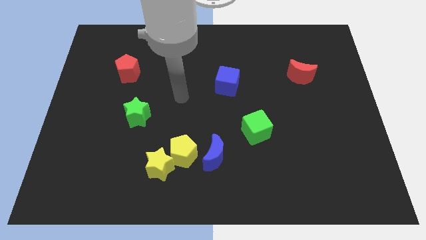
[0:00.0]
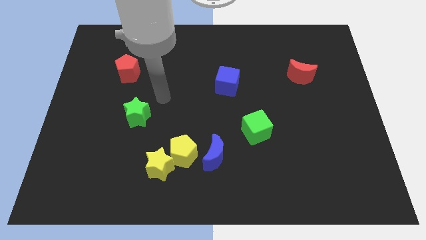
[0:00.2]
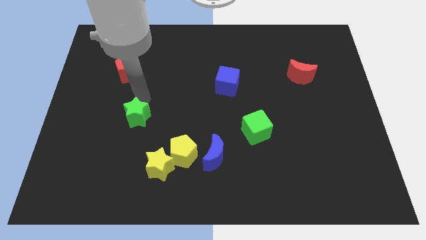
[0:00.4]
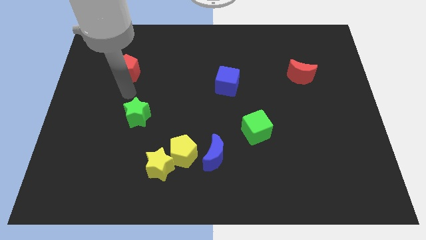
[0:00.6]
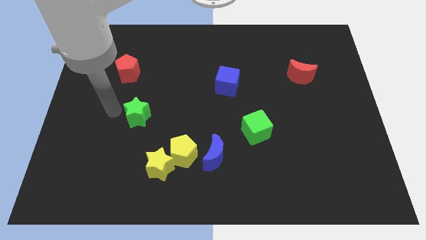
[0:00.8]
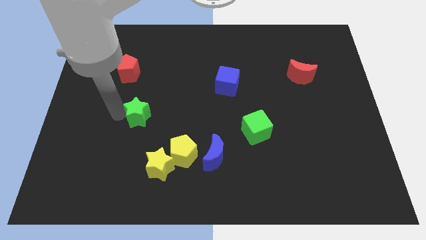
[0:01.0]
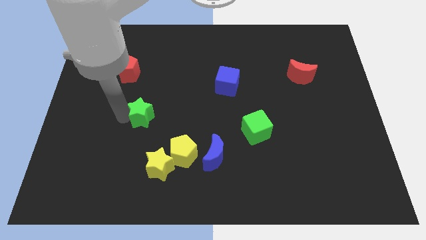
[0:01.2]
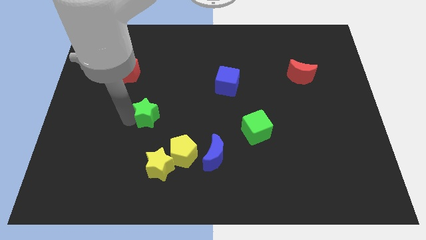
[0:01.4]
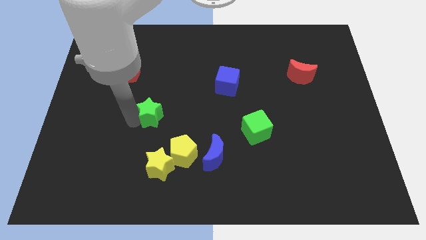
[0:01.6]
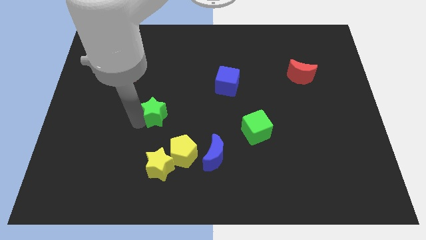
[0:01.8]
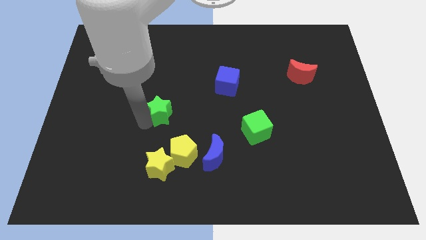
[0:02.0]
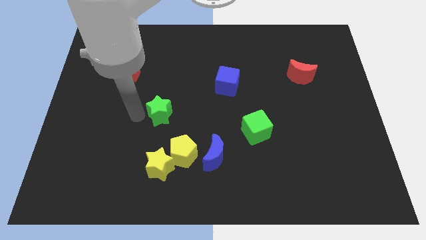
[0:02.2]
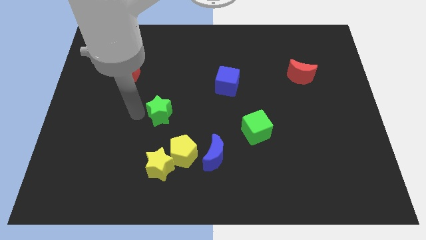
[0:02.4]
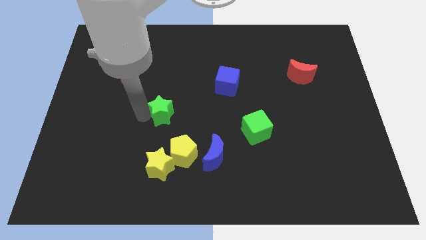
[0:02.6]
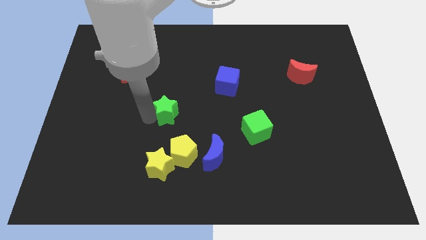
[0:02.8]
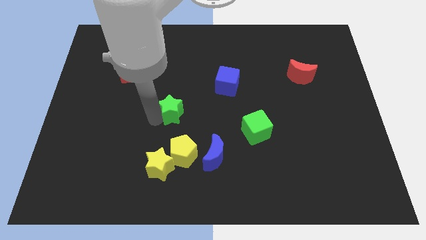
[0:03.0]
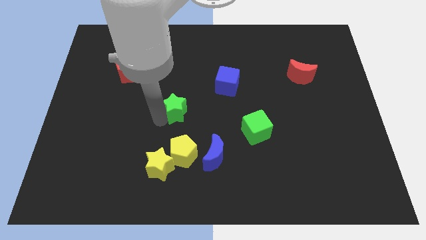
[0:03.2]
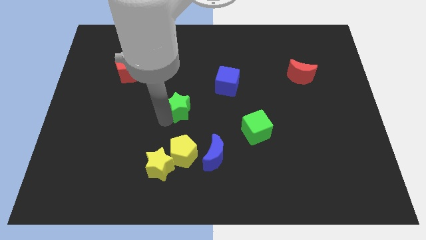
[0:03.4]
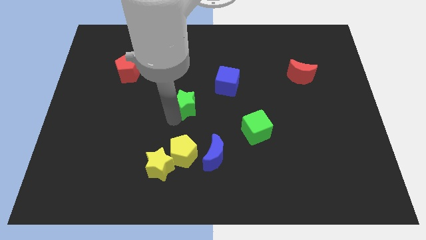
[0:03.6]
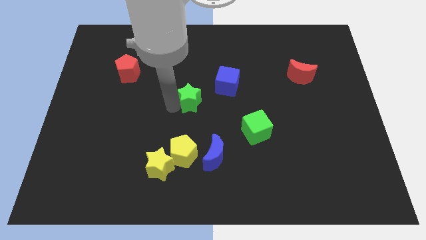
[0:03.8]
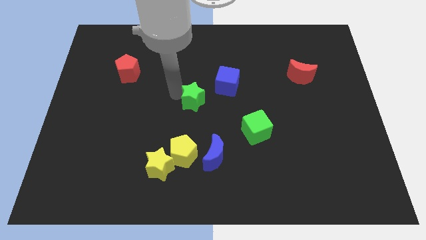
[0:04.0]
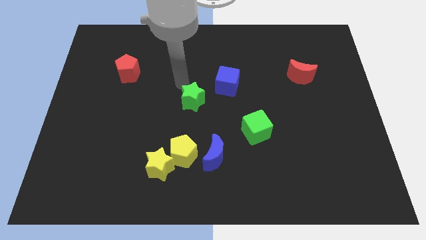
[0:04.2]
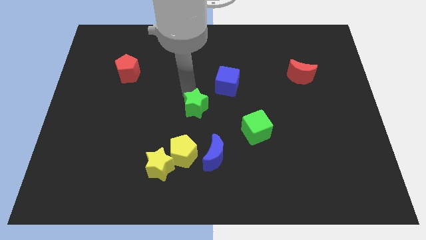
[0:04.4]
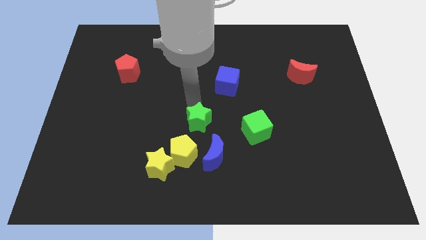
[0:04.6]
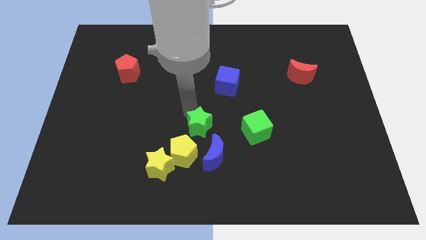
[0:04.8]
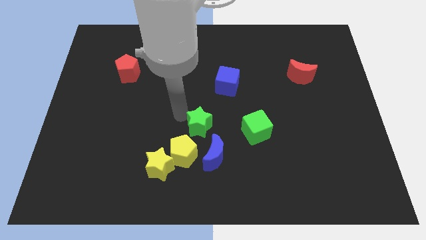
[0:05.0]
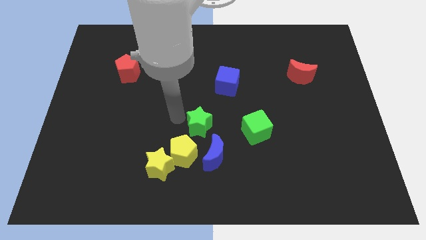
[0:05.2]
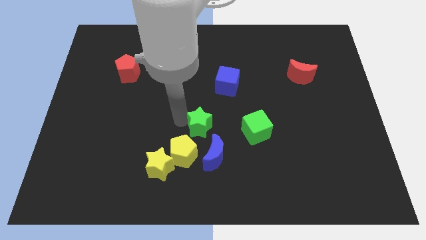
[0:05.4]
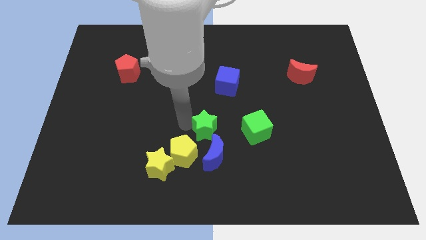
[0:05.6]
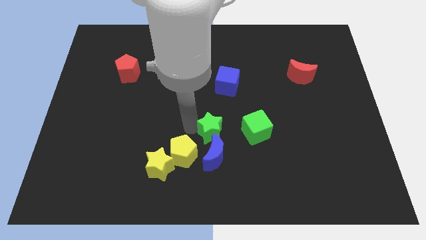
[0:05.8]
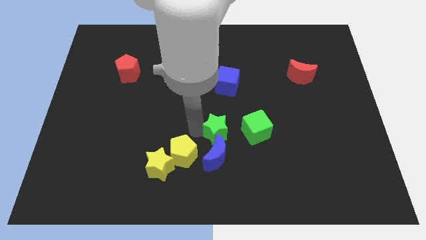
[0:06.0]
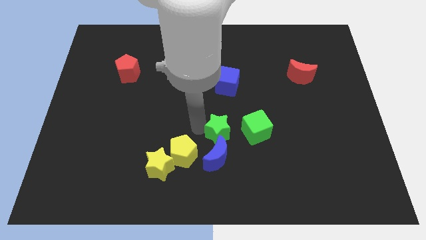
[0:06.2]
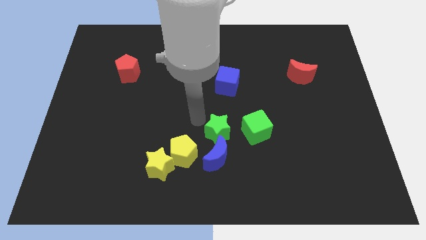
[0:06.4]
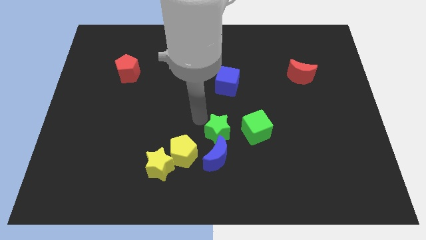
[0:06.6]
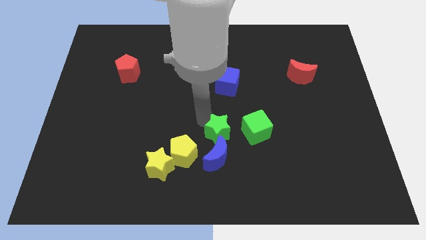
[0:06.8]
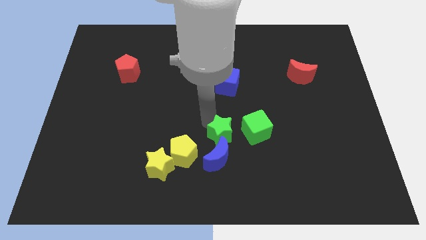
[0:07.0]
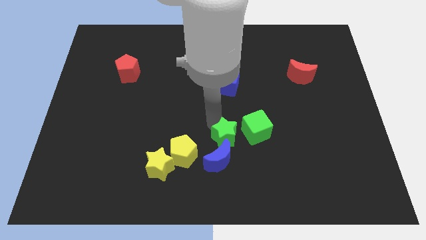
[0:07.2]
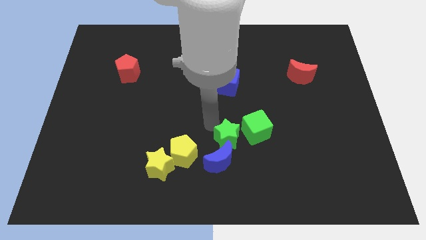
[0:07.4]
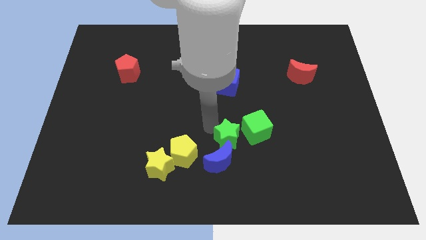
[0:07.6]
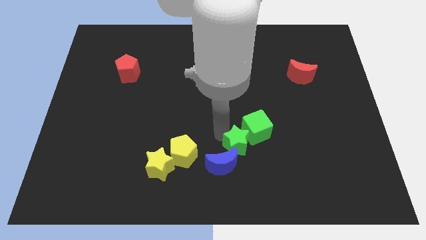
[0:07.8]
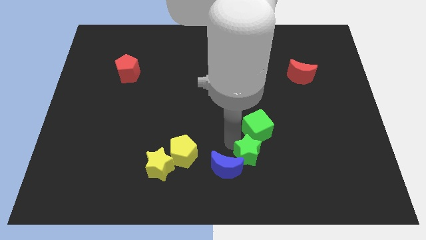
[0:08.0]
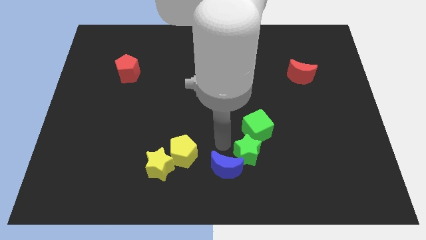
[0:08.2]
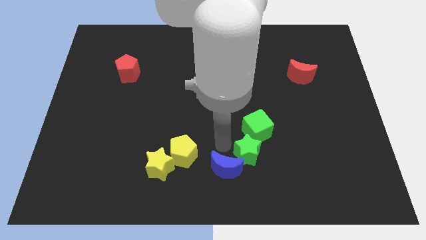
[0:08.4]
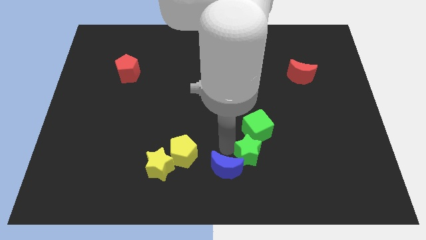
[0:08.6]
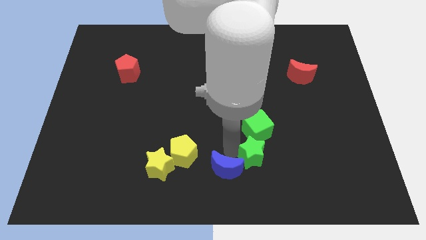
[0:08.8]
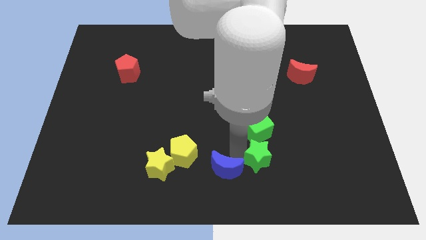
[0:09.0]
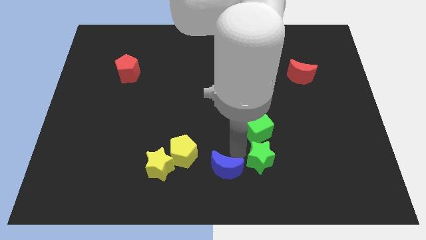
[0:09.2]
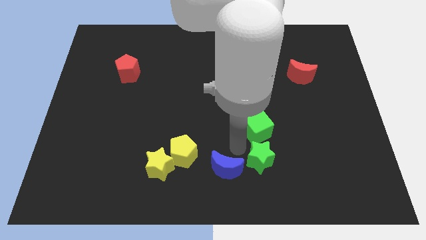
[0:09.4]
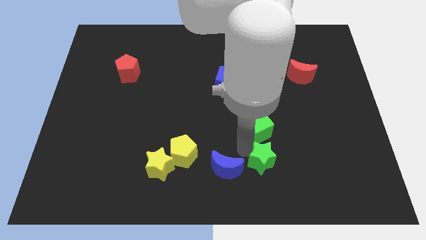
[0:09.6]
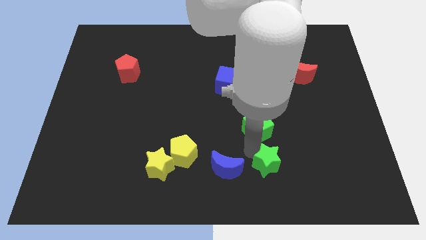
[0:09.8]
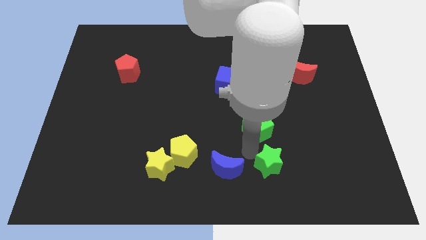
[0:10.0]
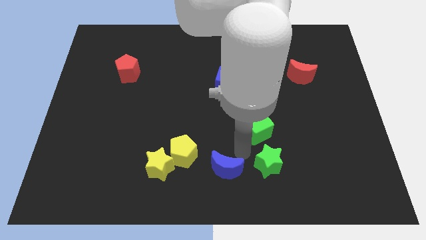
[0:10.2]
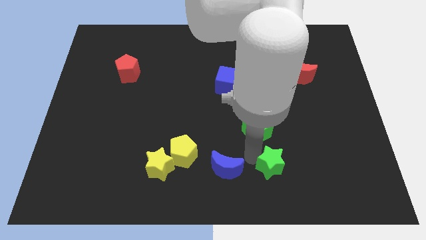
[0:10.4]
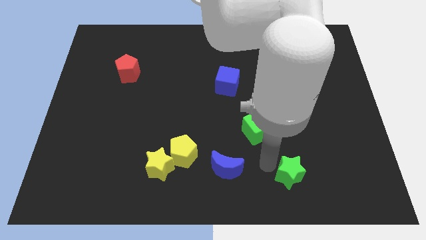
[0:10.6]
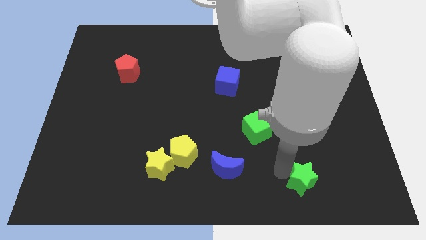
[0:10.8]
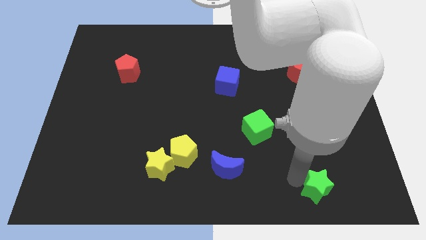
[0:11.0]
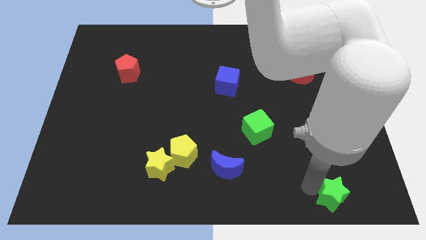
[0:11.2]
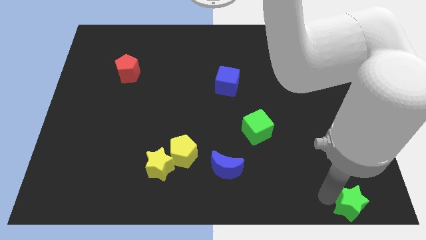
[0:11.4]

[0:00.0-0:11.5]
push the green star to the bottom right
